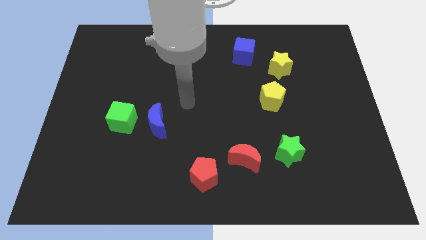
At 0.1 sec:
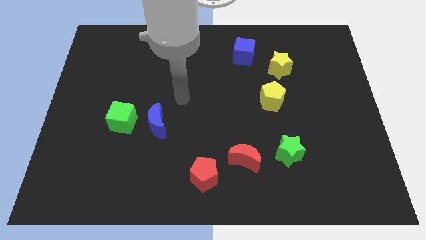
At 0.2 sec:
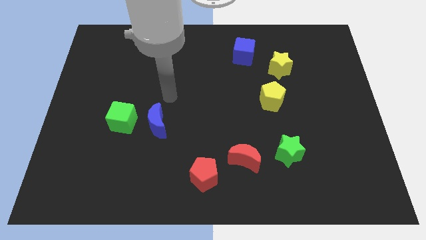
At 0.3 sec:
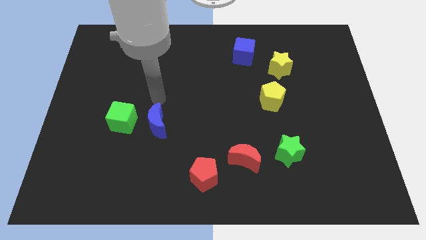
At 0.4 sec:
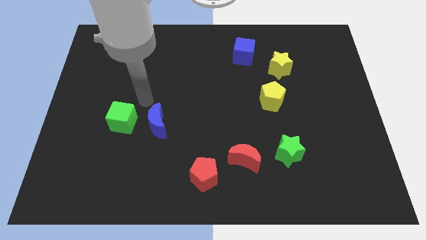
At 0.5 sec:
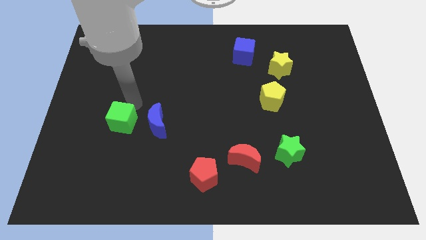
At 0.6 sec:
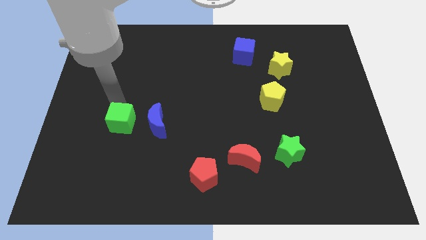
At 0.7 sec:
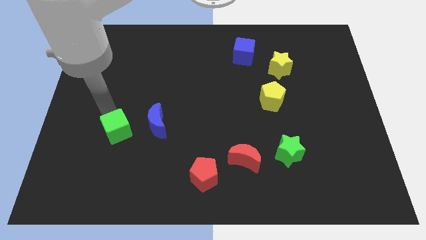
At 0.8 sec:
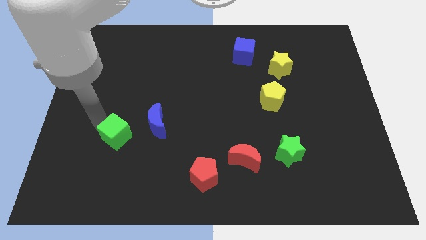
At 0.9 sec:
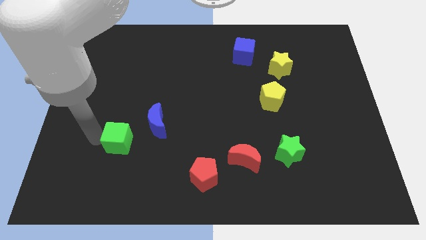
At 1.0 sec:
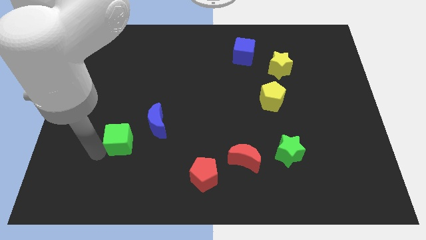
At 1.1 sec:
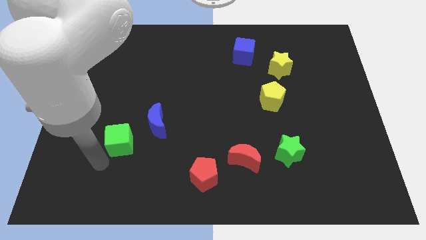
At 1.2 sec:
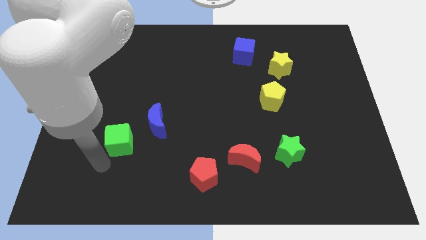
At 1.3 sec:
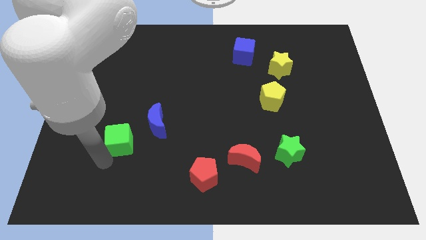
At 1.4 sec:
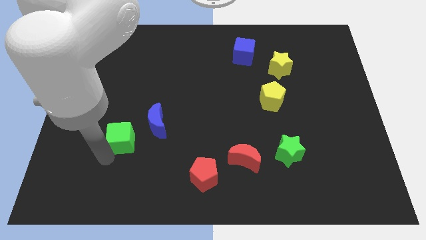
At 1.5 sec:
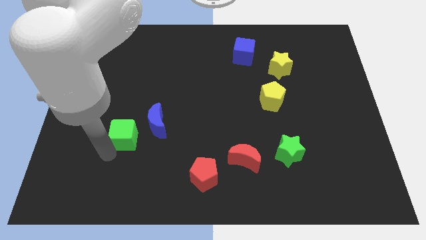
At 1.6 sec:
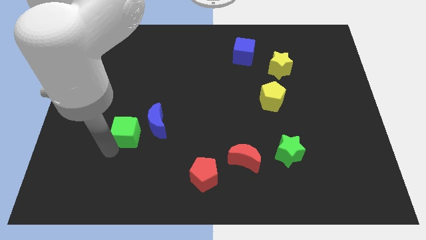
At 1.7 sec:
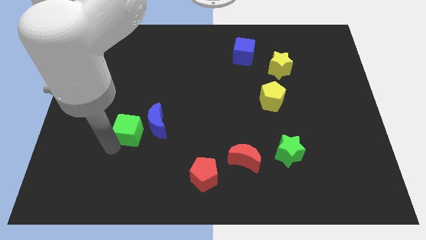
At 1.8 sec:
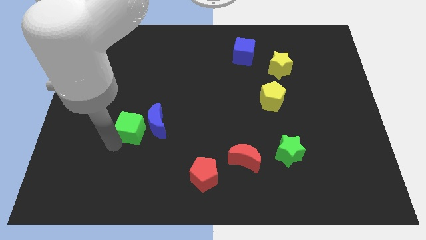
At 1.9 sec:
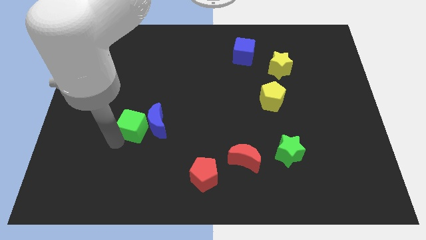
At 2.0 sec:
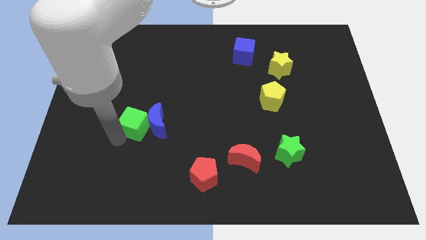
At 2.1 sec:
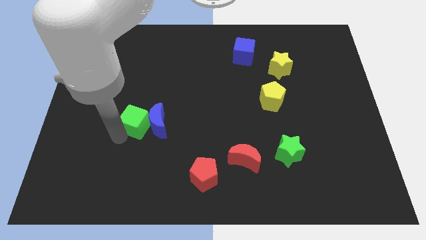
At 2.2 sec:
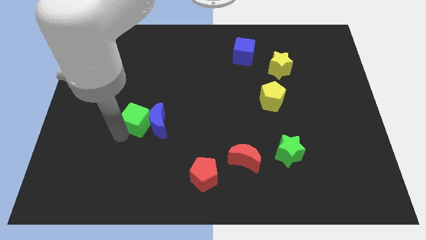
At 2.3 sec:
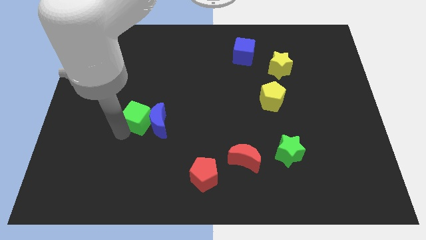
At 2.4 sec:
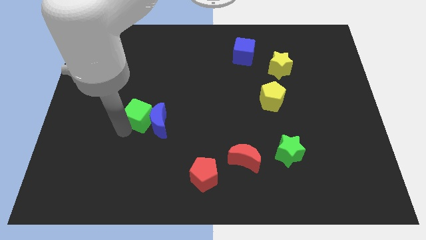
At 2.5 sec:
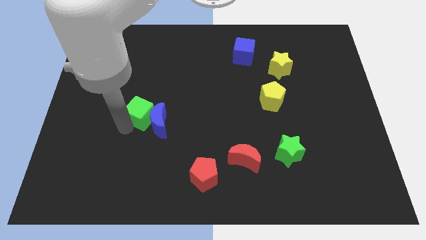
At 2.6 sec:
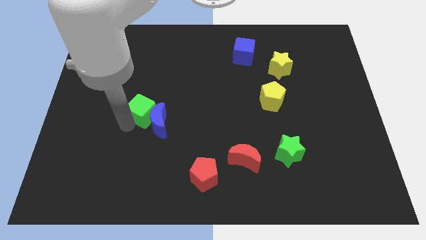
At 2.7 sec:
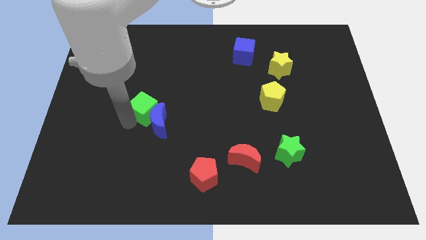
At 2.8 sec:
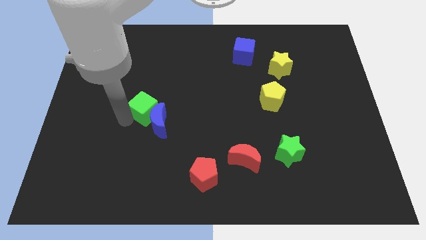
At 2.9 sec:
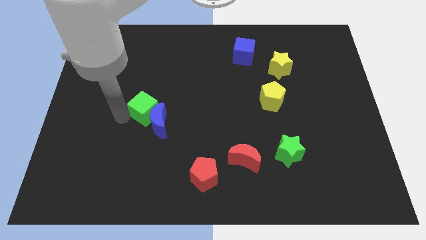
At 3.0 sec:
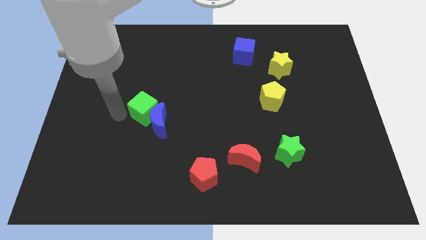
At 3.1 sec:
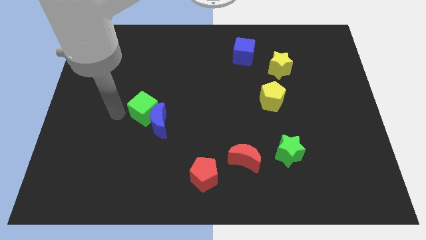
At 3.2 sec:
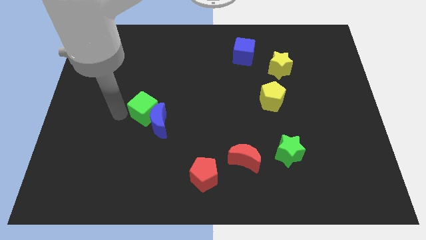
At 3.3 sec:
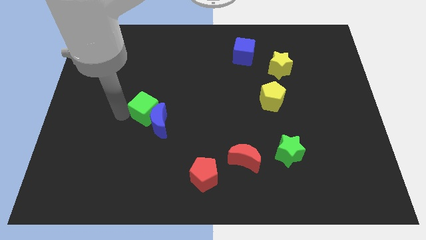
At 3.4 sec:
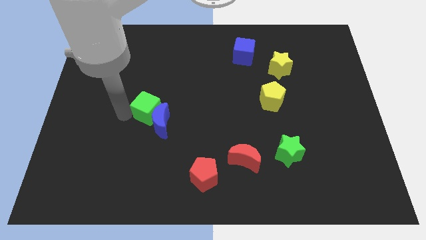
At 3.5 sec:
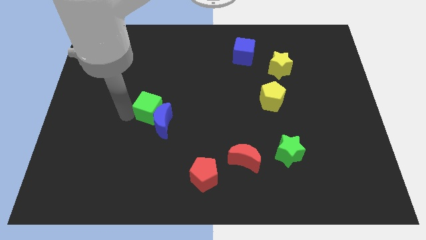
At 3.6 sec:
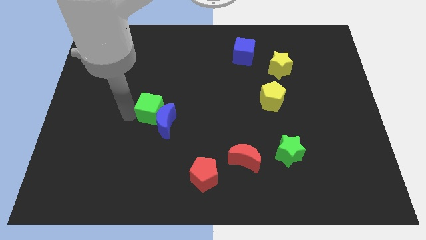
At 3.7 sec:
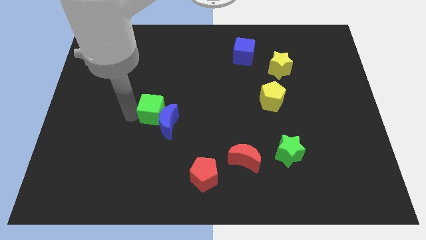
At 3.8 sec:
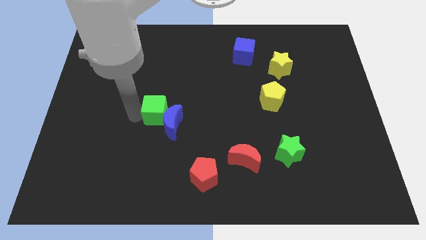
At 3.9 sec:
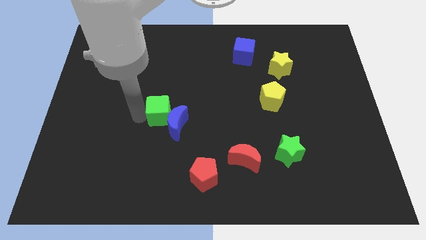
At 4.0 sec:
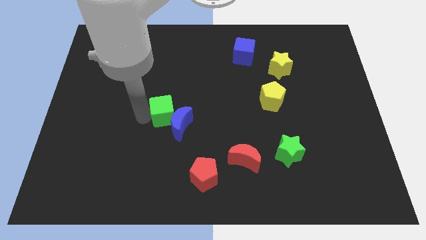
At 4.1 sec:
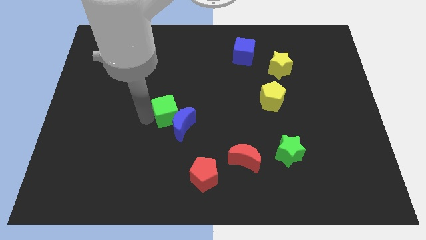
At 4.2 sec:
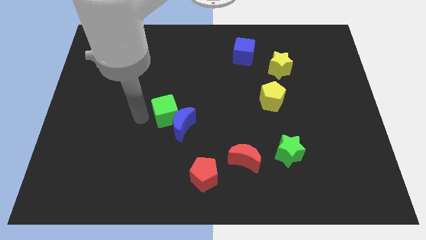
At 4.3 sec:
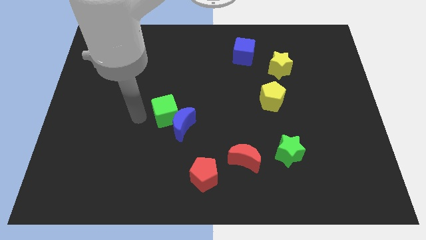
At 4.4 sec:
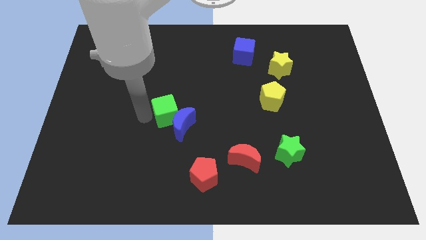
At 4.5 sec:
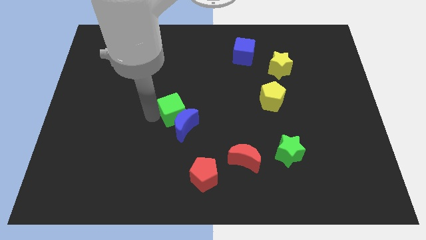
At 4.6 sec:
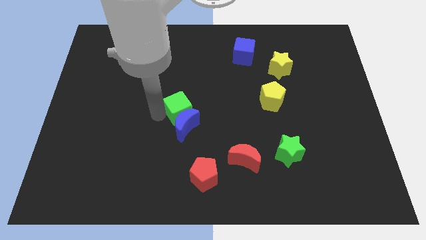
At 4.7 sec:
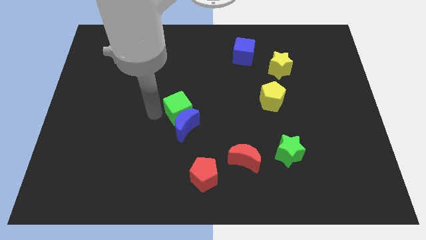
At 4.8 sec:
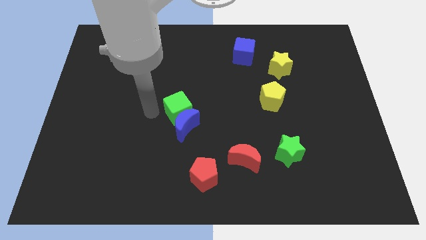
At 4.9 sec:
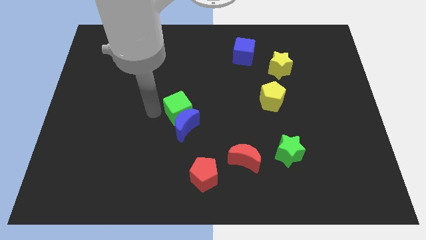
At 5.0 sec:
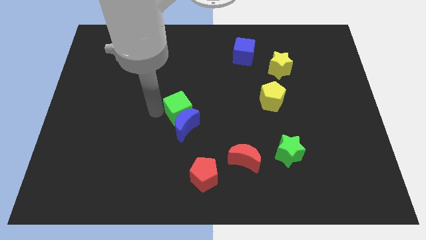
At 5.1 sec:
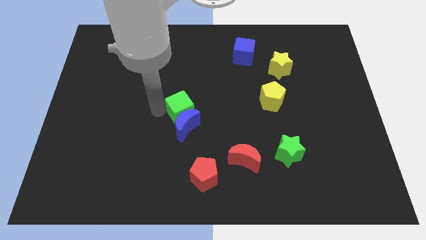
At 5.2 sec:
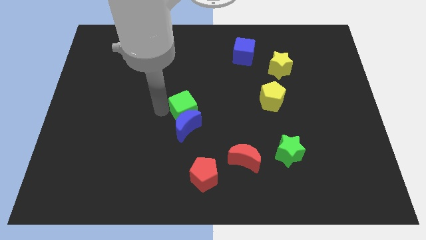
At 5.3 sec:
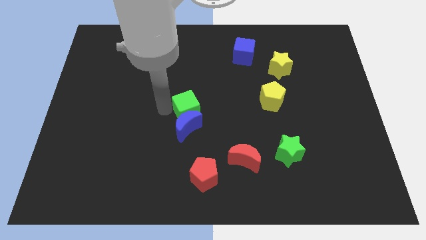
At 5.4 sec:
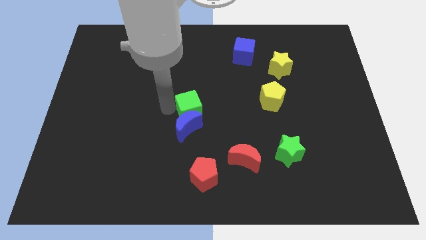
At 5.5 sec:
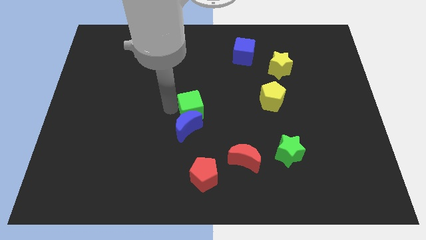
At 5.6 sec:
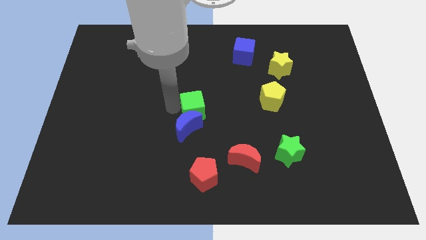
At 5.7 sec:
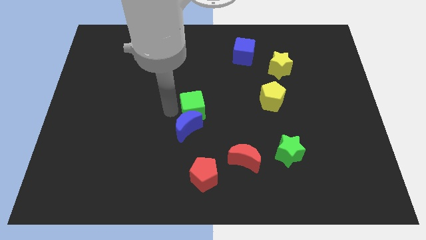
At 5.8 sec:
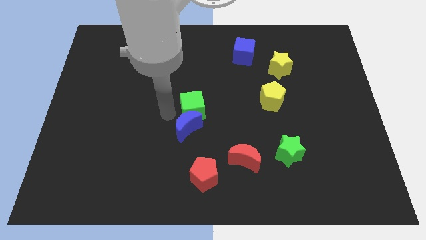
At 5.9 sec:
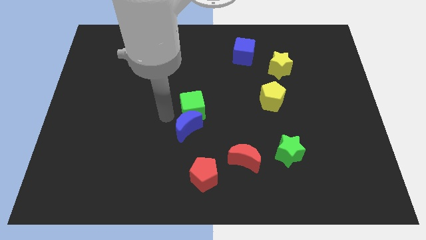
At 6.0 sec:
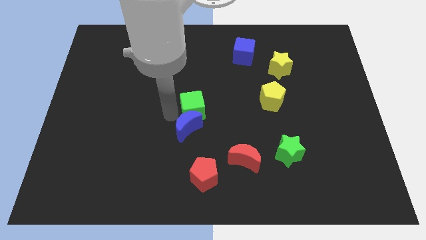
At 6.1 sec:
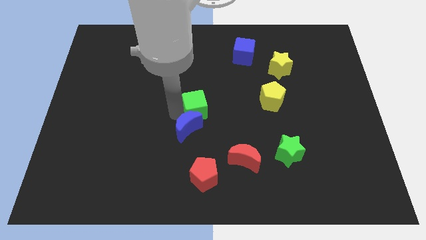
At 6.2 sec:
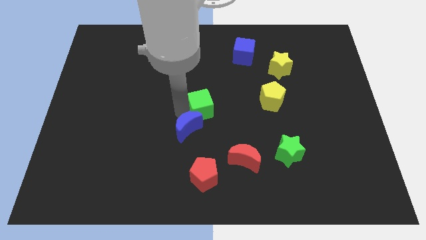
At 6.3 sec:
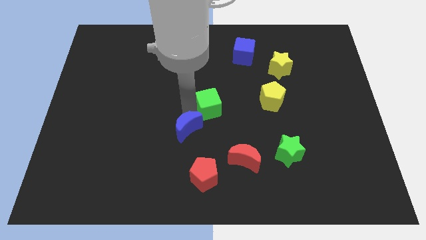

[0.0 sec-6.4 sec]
put the green cube to the left side of the yellow pentagon

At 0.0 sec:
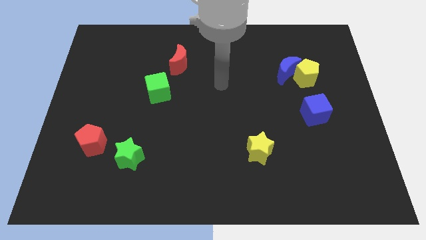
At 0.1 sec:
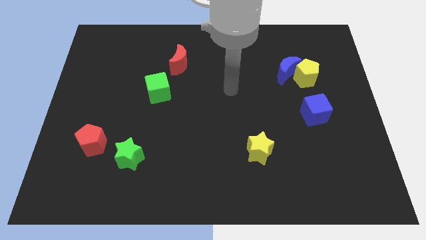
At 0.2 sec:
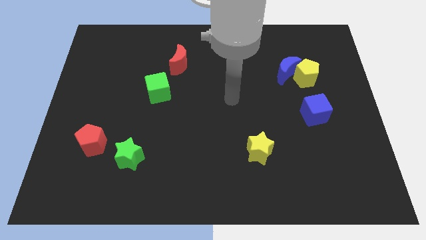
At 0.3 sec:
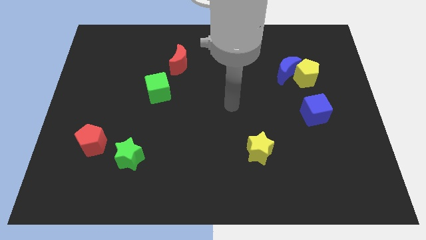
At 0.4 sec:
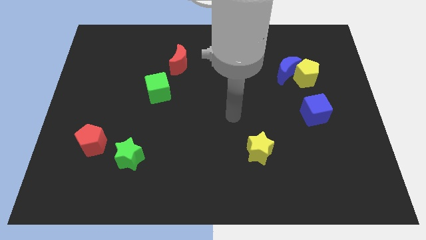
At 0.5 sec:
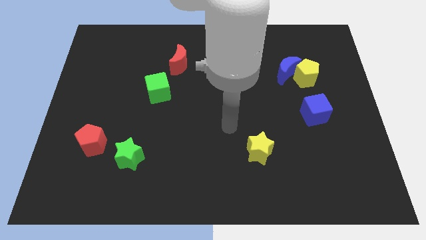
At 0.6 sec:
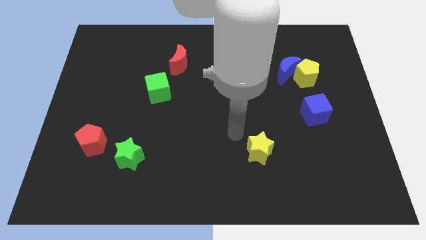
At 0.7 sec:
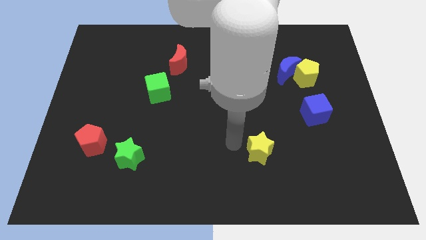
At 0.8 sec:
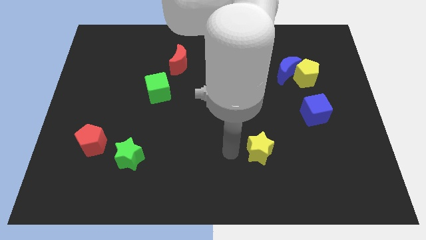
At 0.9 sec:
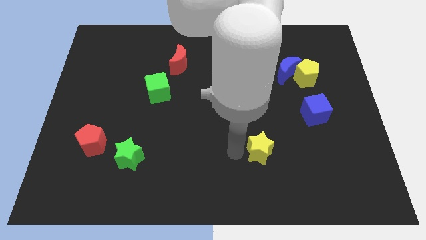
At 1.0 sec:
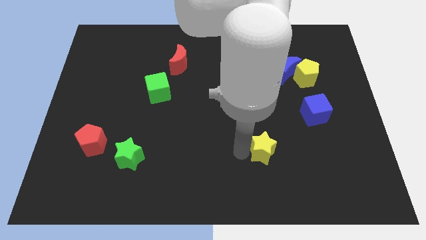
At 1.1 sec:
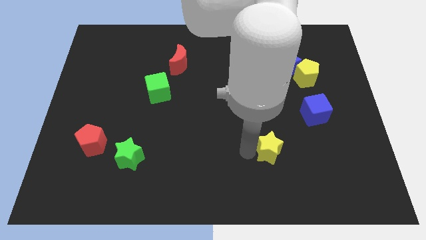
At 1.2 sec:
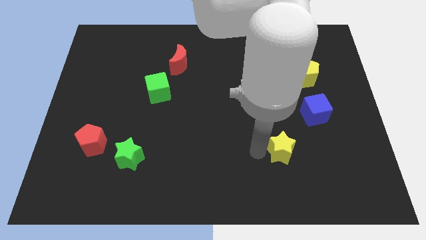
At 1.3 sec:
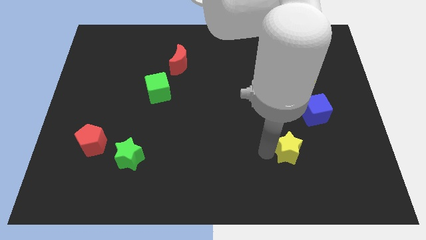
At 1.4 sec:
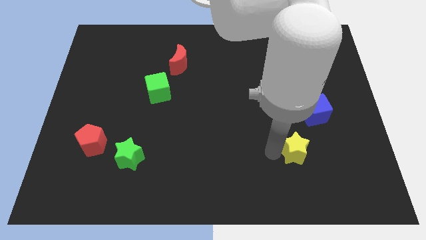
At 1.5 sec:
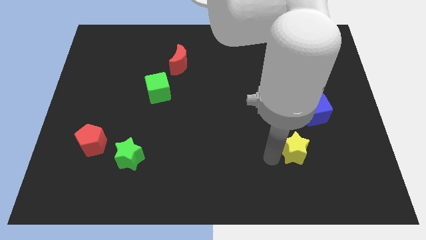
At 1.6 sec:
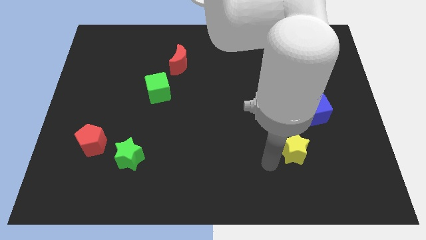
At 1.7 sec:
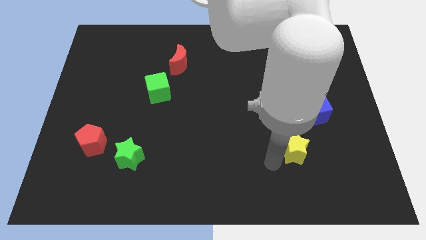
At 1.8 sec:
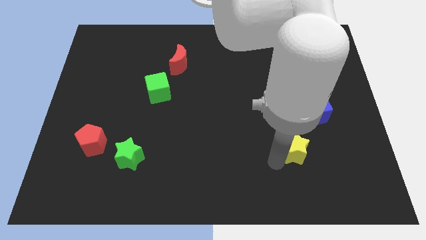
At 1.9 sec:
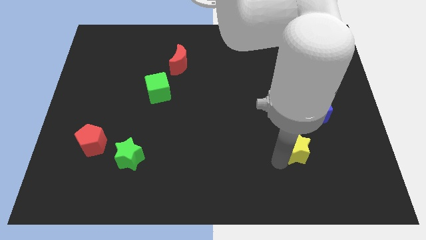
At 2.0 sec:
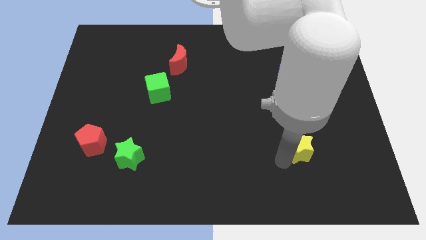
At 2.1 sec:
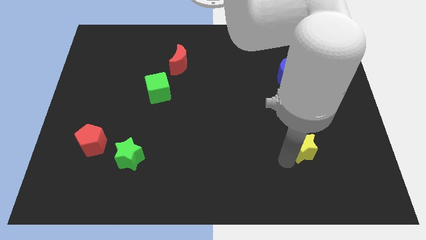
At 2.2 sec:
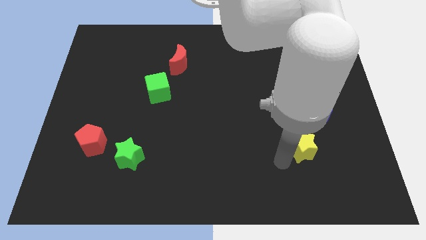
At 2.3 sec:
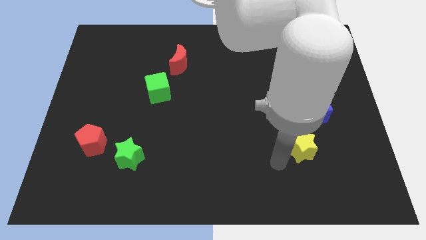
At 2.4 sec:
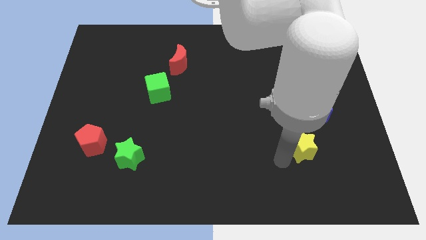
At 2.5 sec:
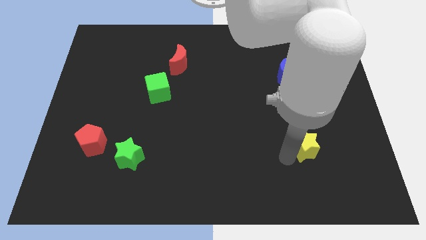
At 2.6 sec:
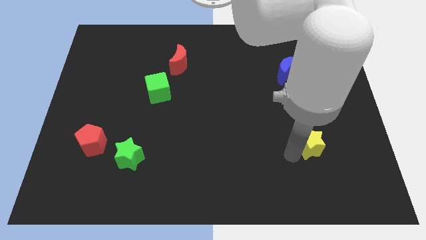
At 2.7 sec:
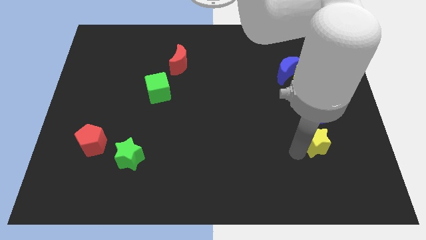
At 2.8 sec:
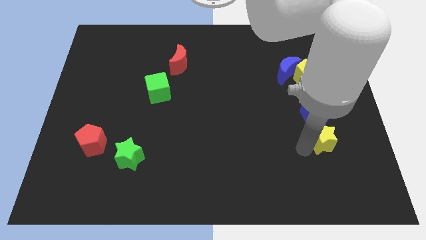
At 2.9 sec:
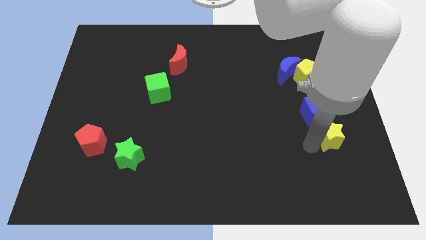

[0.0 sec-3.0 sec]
move the yellow star to the bottom right of the blue cube
